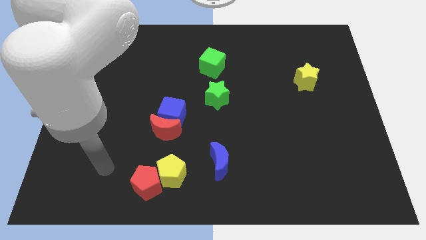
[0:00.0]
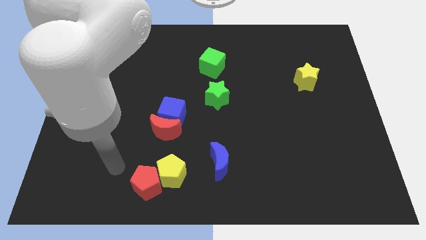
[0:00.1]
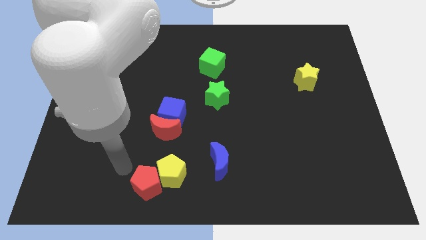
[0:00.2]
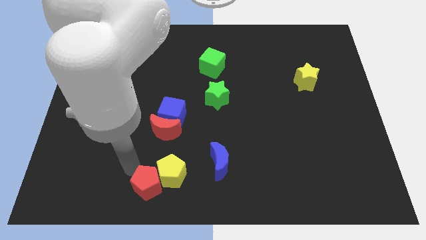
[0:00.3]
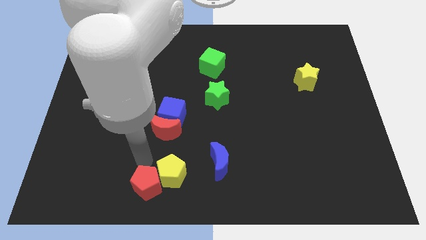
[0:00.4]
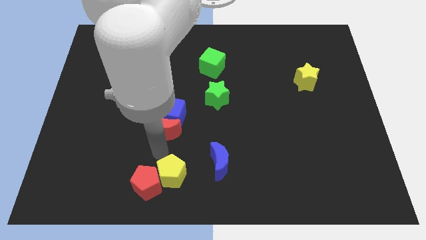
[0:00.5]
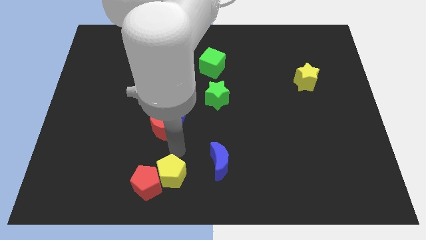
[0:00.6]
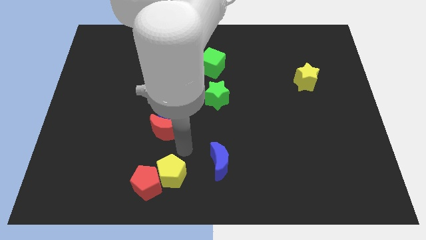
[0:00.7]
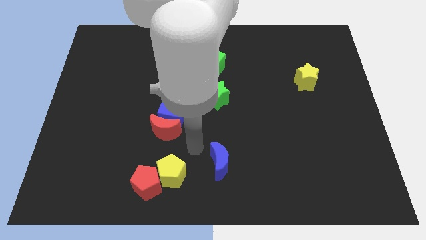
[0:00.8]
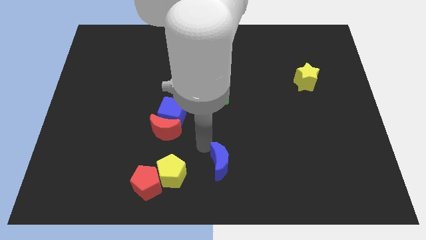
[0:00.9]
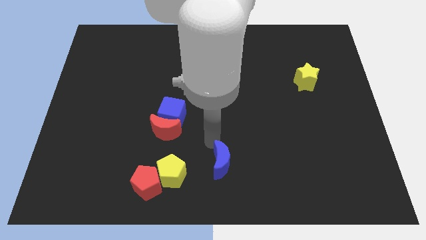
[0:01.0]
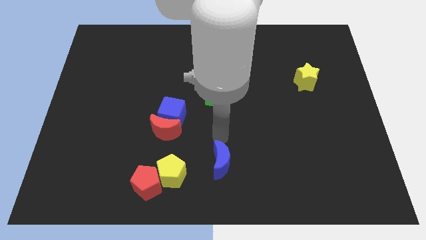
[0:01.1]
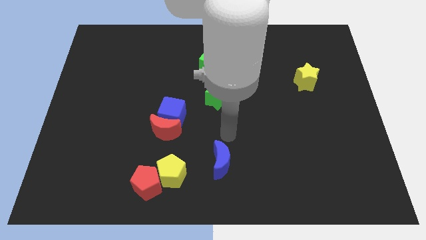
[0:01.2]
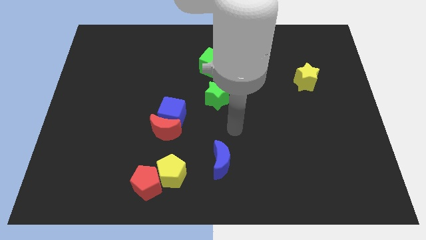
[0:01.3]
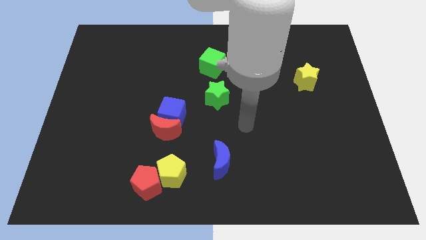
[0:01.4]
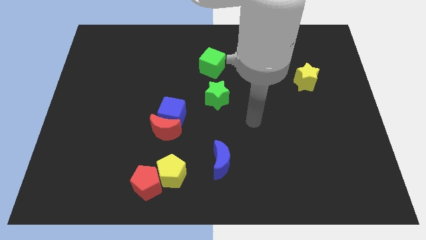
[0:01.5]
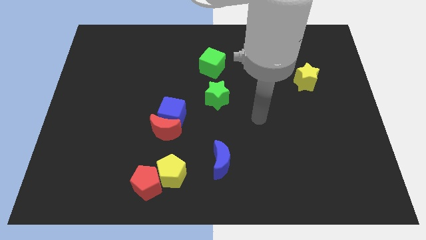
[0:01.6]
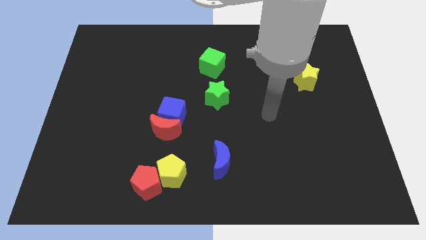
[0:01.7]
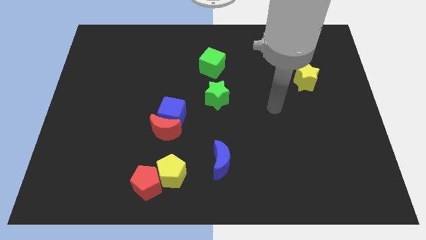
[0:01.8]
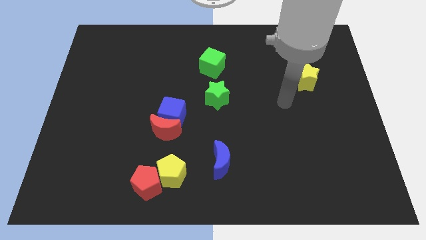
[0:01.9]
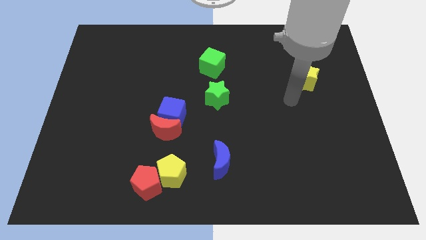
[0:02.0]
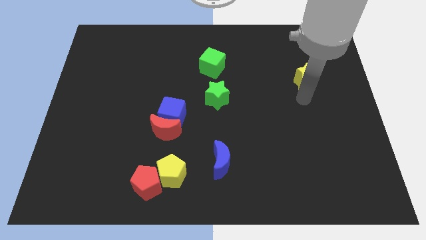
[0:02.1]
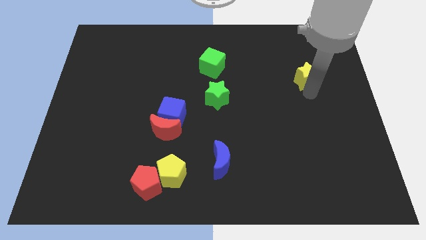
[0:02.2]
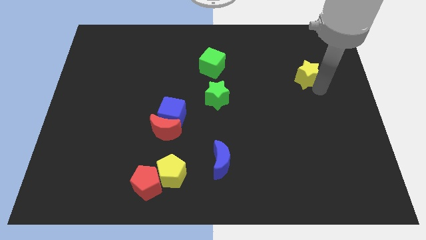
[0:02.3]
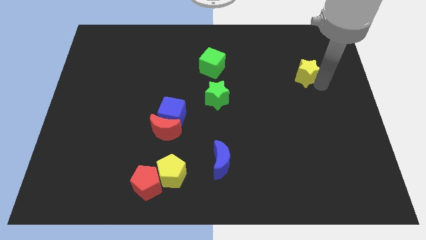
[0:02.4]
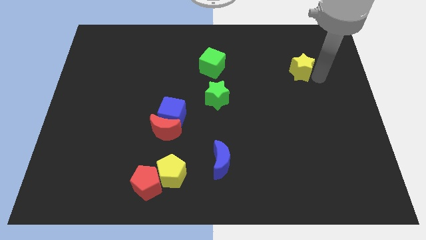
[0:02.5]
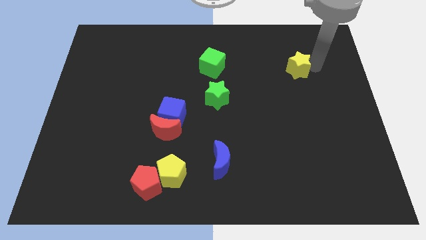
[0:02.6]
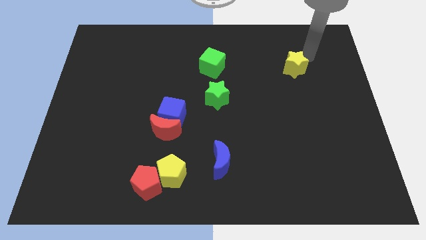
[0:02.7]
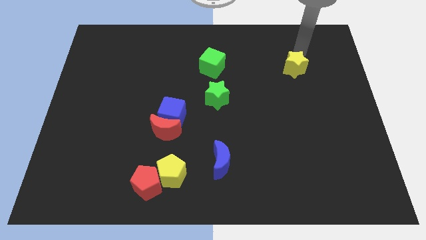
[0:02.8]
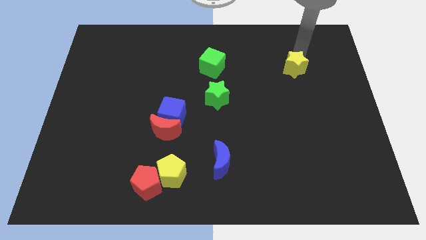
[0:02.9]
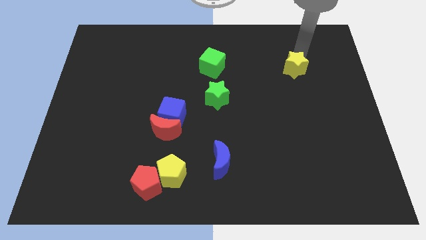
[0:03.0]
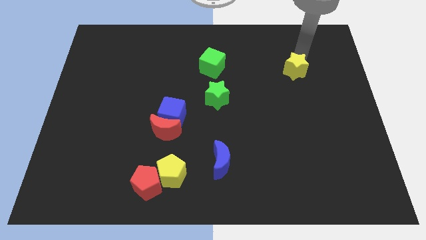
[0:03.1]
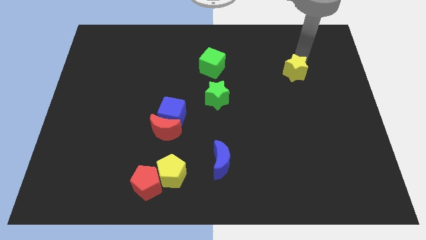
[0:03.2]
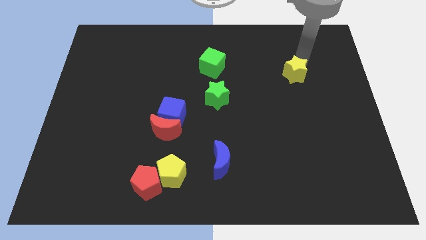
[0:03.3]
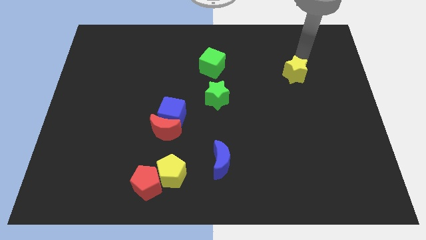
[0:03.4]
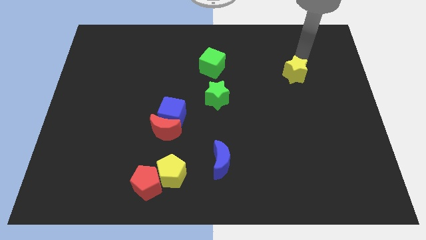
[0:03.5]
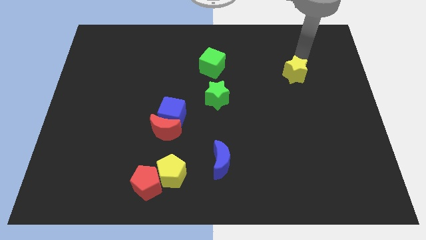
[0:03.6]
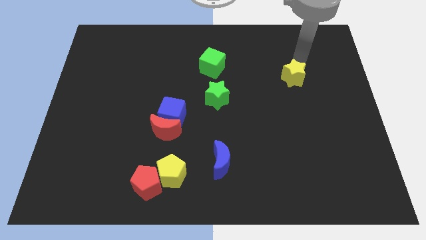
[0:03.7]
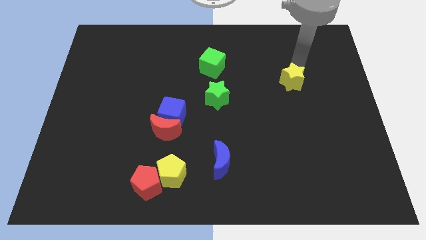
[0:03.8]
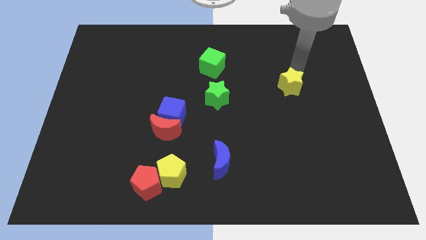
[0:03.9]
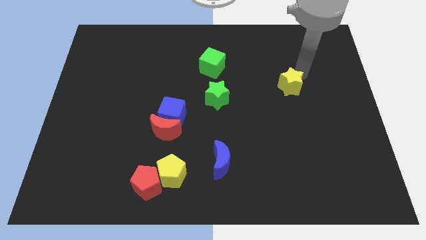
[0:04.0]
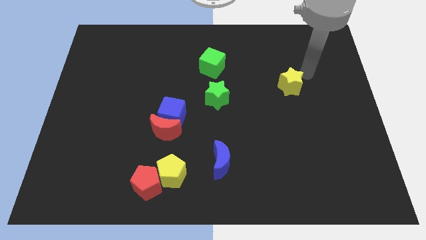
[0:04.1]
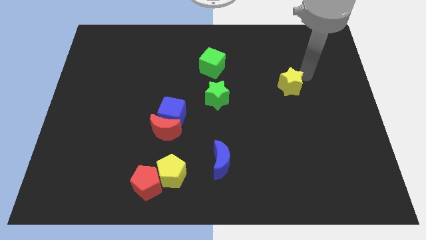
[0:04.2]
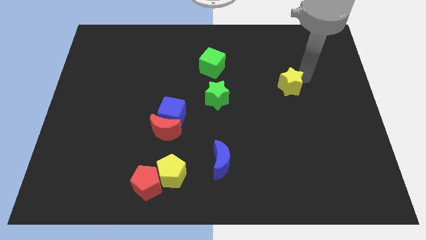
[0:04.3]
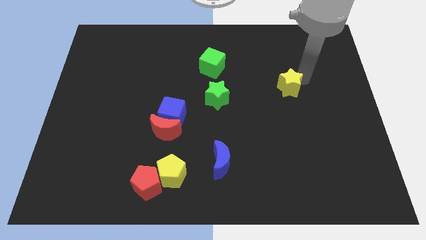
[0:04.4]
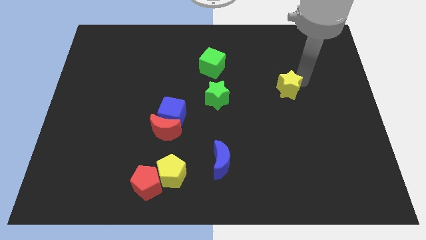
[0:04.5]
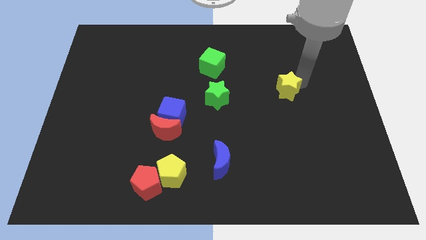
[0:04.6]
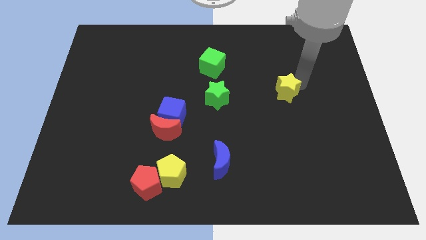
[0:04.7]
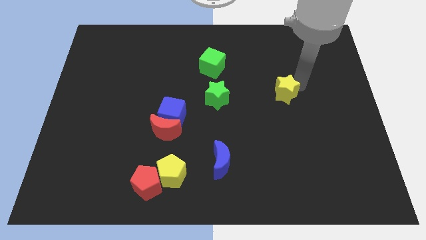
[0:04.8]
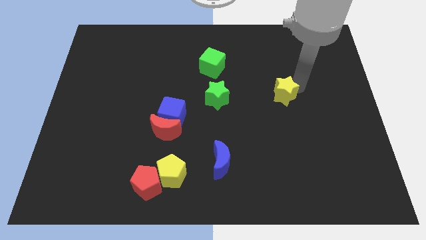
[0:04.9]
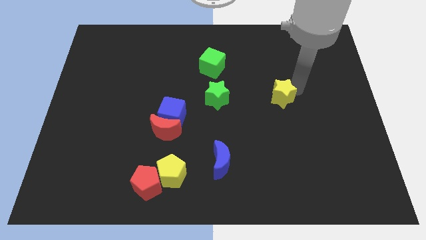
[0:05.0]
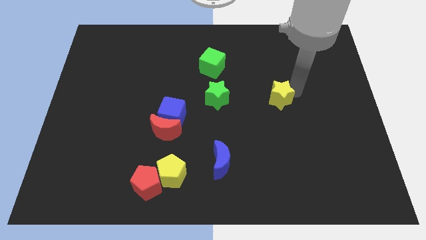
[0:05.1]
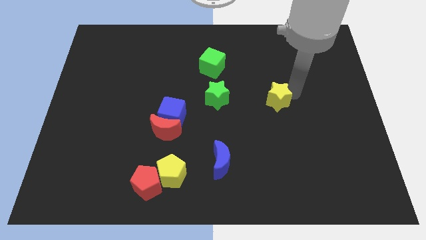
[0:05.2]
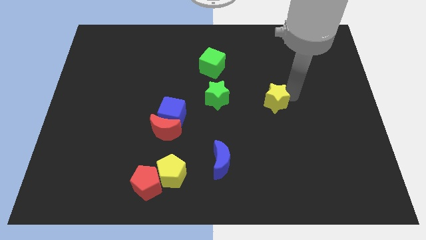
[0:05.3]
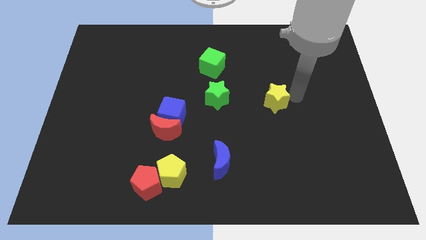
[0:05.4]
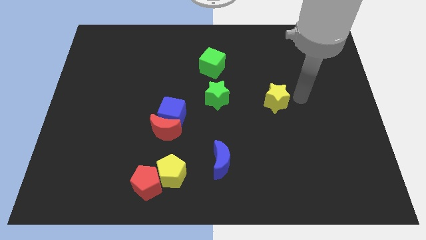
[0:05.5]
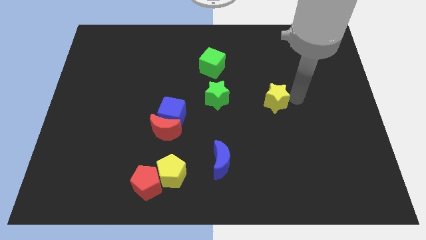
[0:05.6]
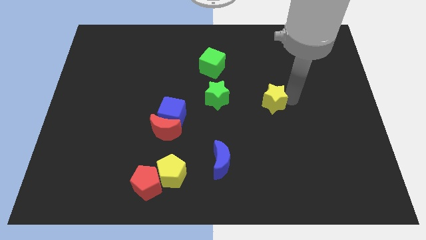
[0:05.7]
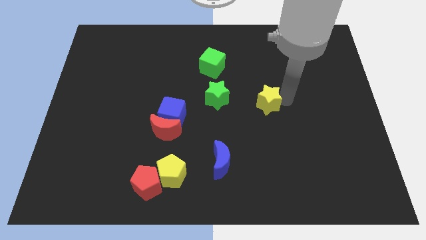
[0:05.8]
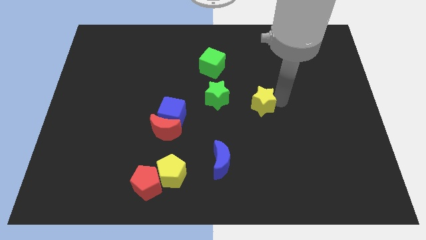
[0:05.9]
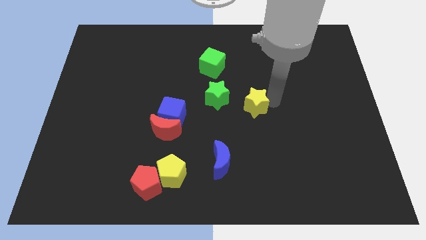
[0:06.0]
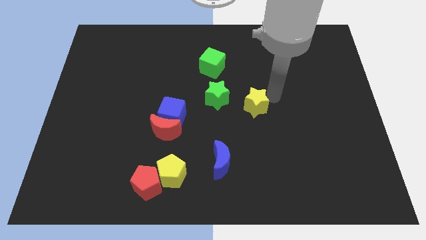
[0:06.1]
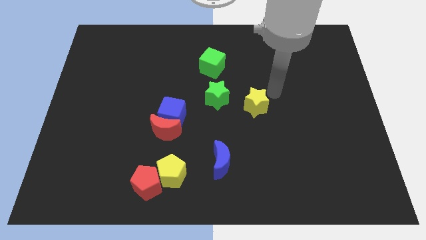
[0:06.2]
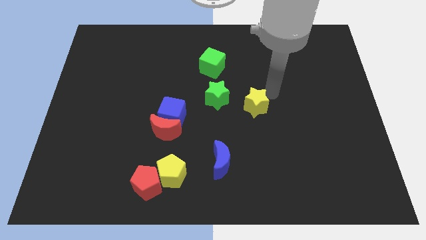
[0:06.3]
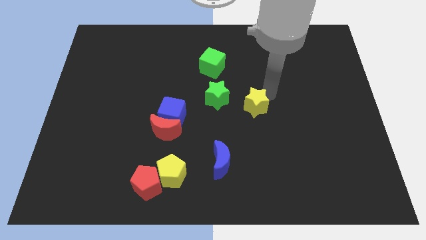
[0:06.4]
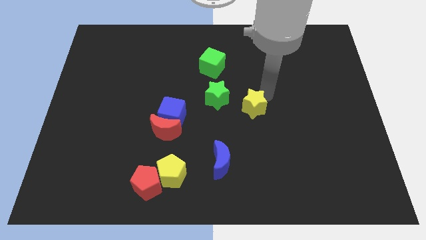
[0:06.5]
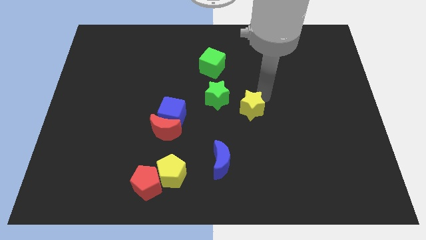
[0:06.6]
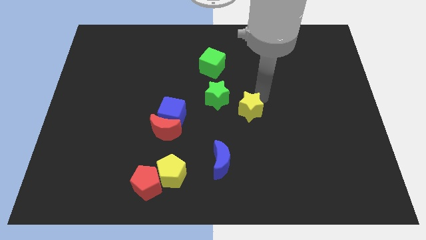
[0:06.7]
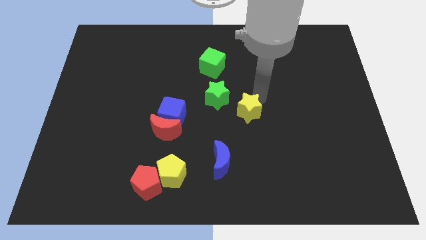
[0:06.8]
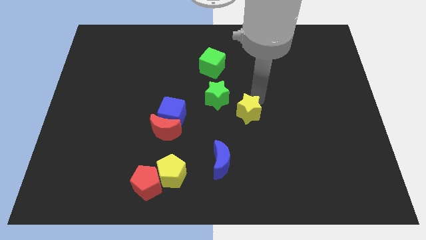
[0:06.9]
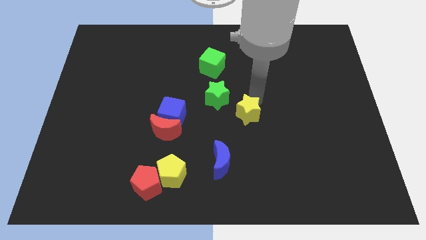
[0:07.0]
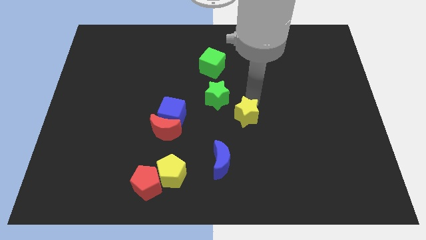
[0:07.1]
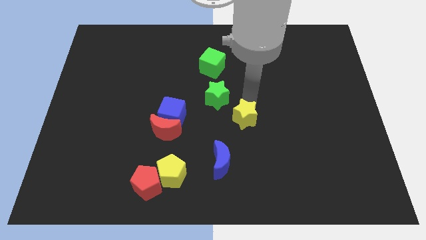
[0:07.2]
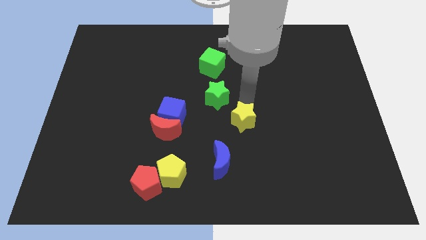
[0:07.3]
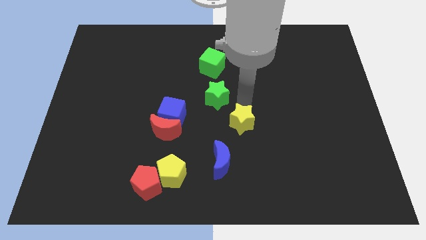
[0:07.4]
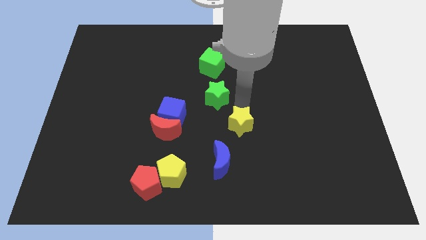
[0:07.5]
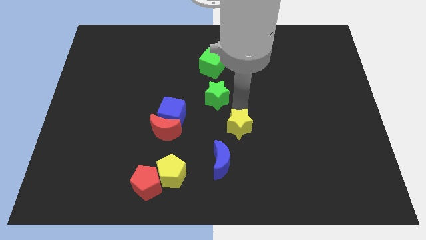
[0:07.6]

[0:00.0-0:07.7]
put the yellow star just right of the red moon

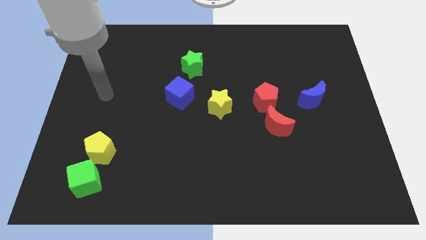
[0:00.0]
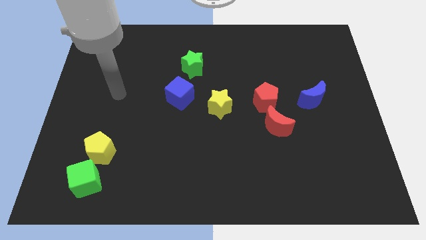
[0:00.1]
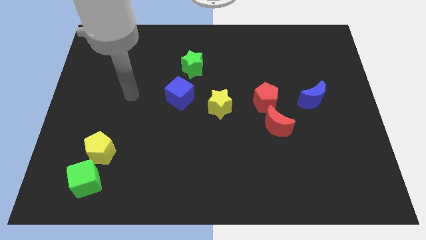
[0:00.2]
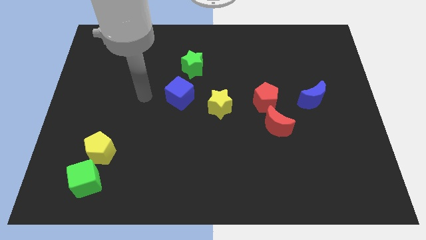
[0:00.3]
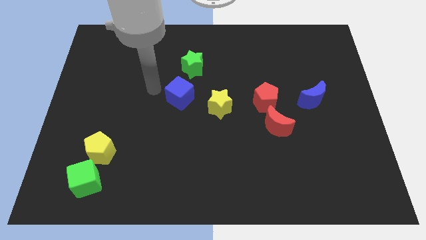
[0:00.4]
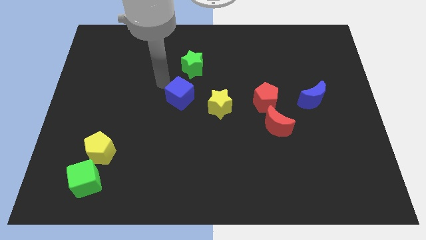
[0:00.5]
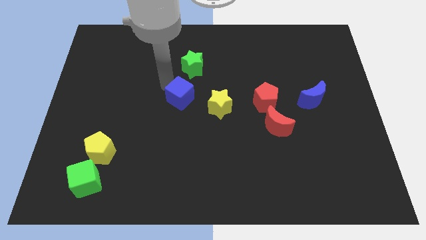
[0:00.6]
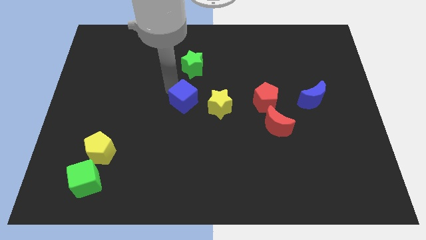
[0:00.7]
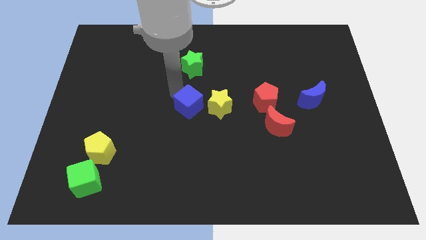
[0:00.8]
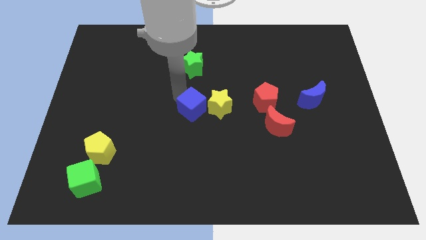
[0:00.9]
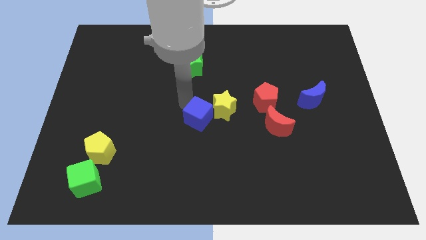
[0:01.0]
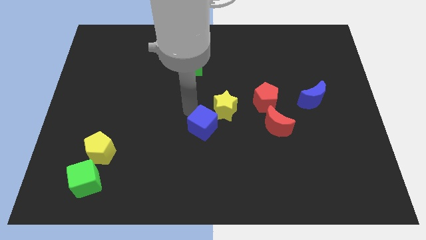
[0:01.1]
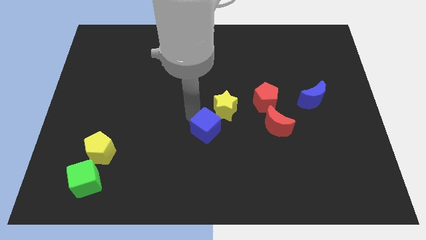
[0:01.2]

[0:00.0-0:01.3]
slide the blue cube left of the red moon
